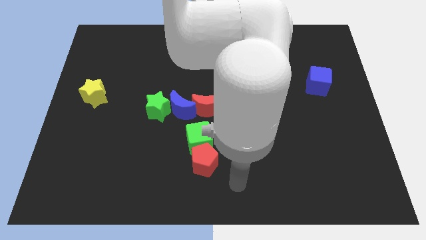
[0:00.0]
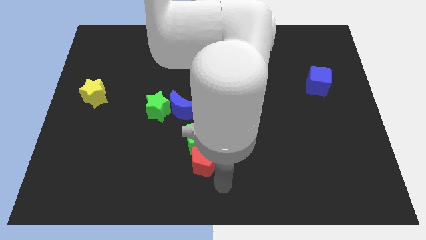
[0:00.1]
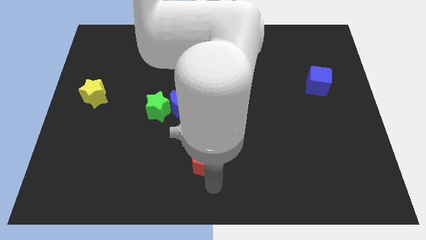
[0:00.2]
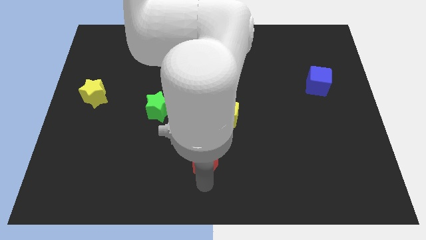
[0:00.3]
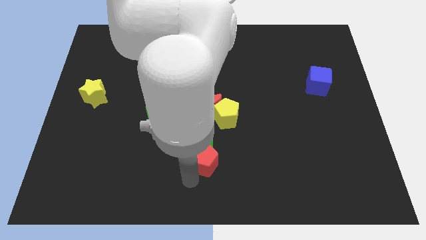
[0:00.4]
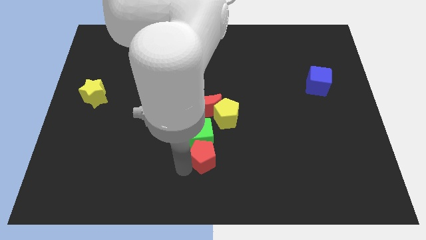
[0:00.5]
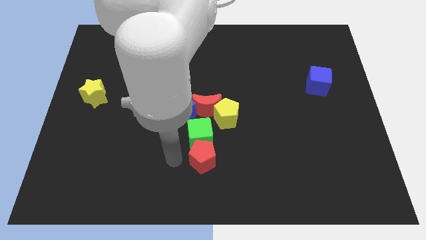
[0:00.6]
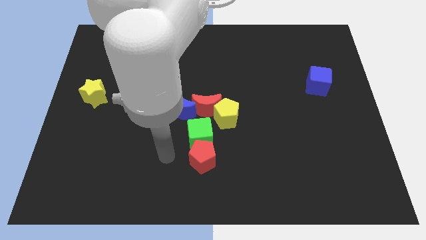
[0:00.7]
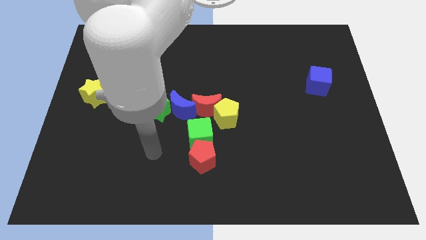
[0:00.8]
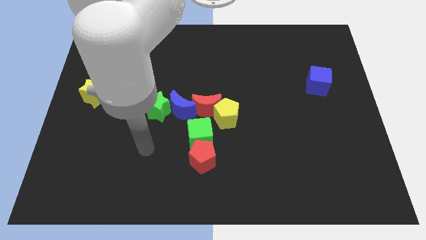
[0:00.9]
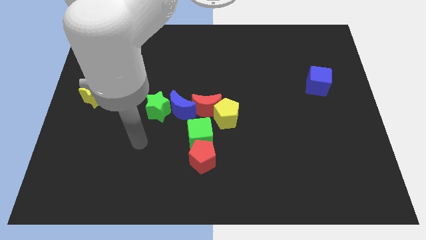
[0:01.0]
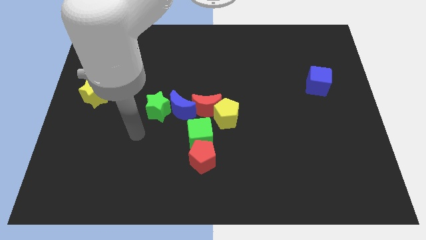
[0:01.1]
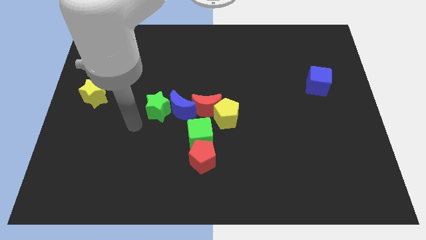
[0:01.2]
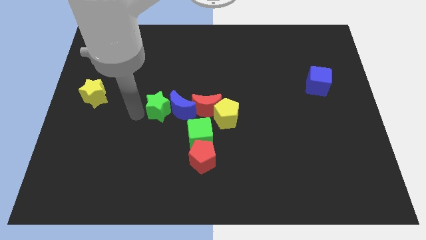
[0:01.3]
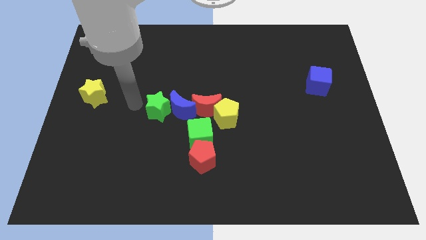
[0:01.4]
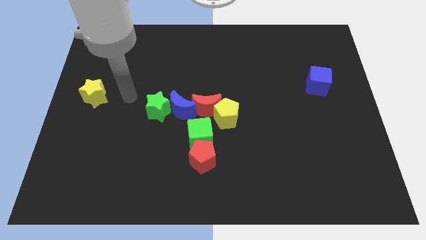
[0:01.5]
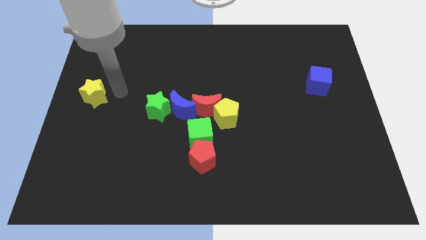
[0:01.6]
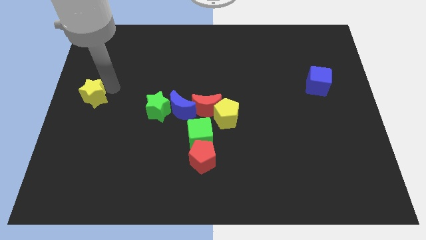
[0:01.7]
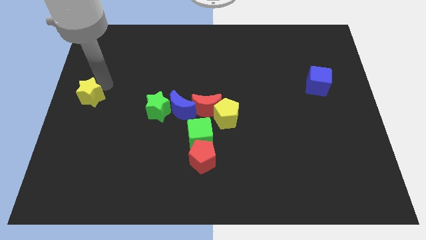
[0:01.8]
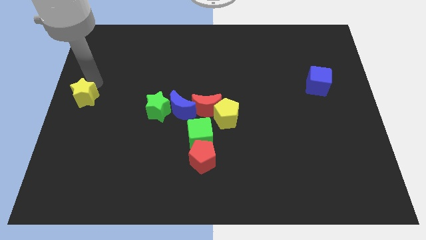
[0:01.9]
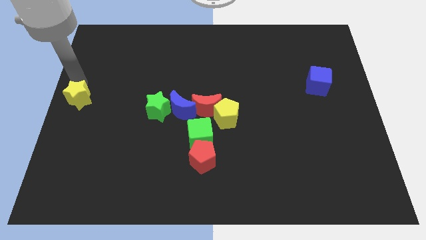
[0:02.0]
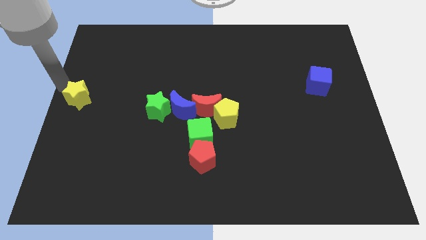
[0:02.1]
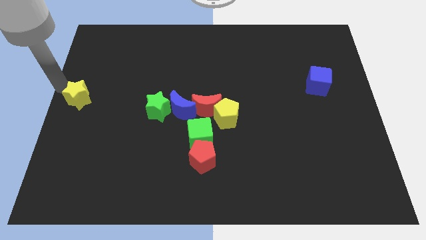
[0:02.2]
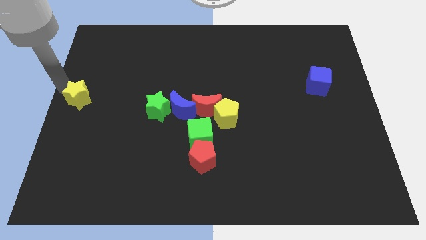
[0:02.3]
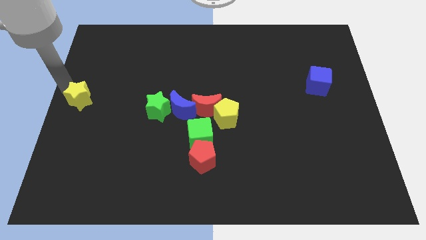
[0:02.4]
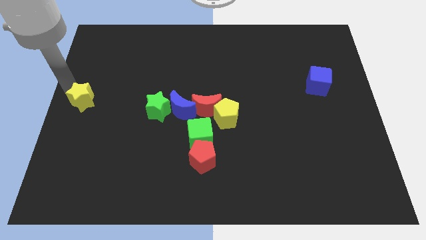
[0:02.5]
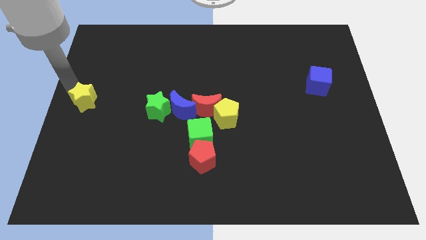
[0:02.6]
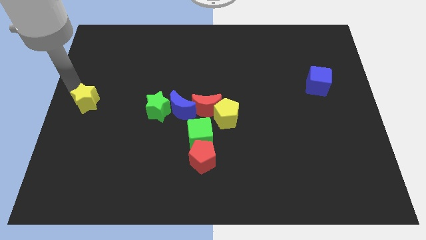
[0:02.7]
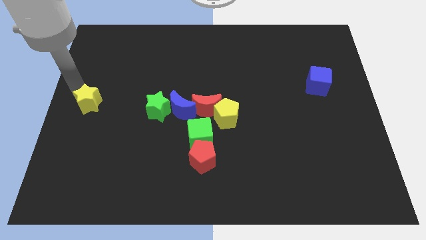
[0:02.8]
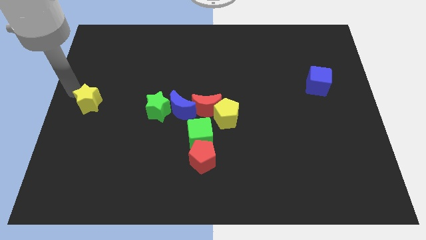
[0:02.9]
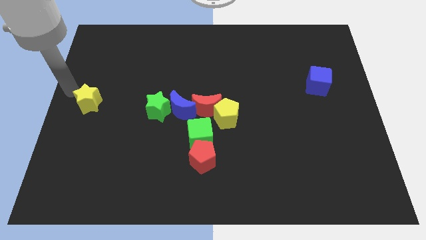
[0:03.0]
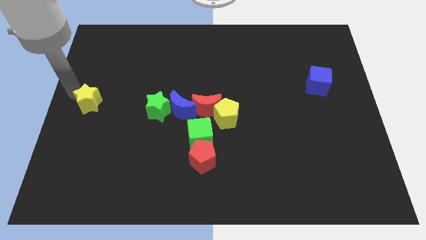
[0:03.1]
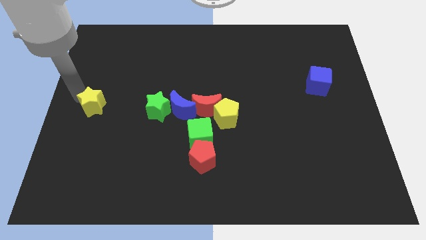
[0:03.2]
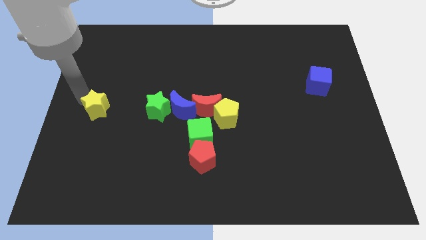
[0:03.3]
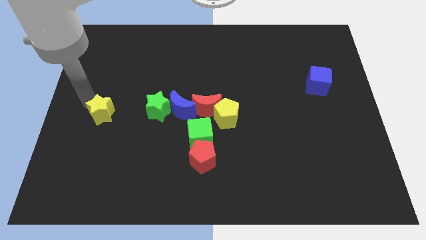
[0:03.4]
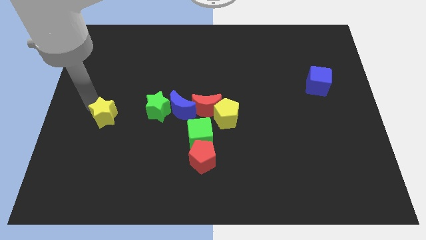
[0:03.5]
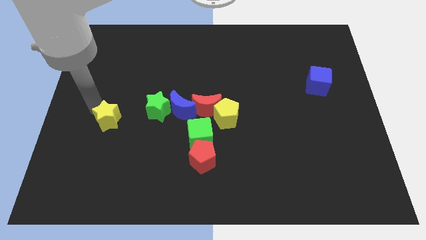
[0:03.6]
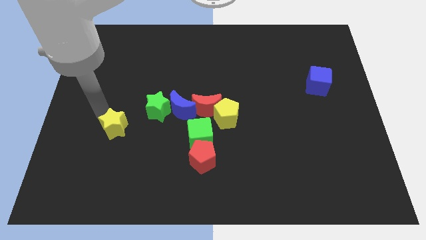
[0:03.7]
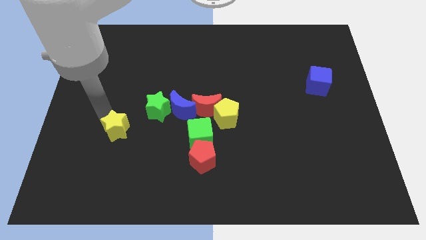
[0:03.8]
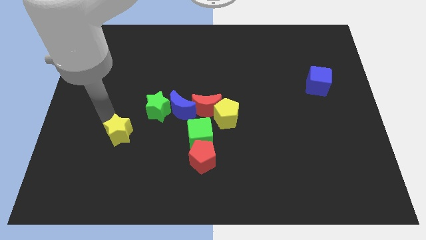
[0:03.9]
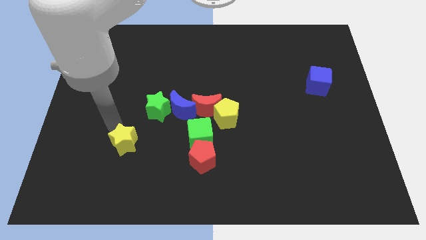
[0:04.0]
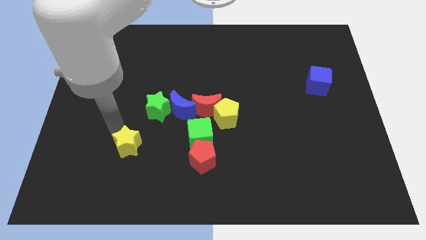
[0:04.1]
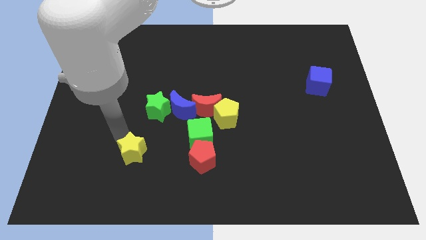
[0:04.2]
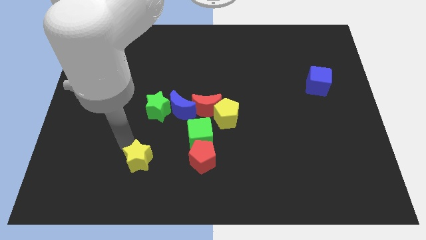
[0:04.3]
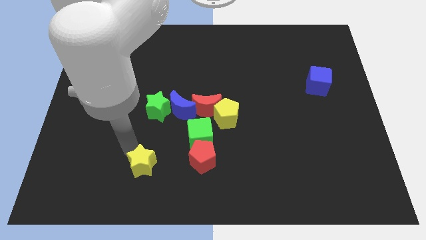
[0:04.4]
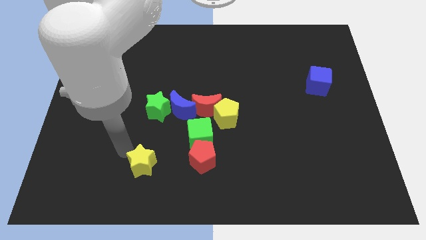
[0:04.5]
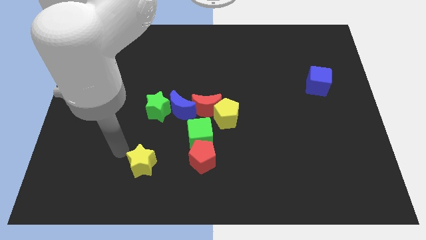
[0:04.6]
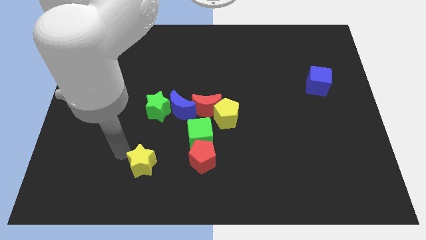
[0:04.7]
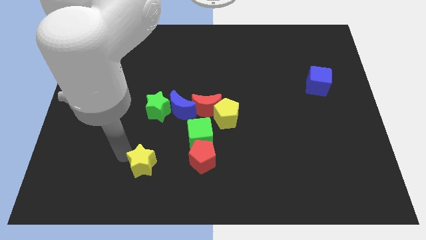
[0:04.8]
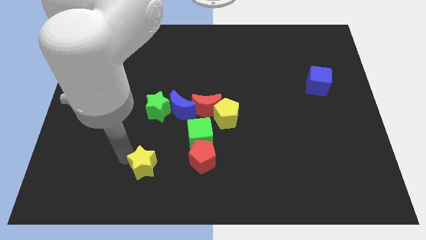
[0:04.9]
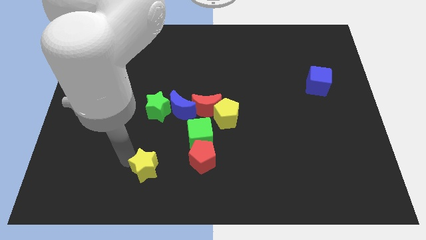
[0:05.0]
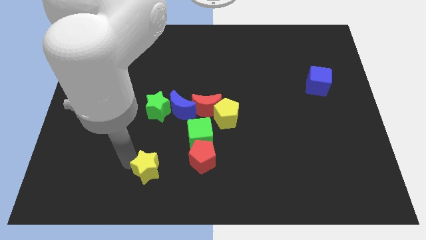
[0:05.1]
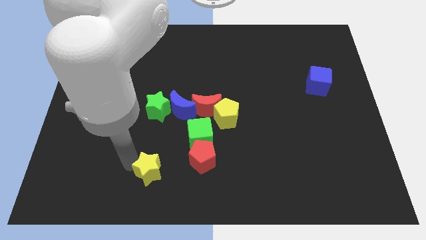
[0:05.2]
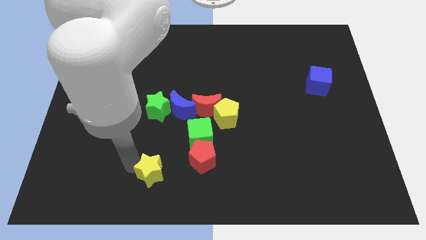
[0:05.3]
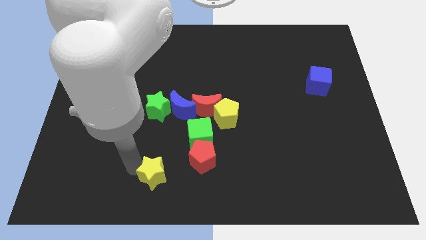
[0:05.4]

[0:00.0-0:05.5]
push the yellow star to the bottom left side of the red pentagon

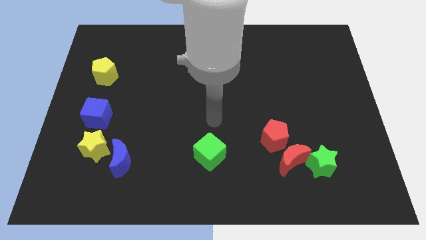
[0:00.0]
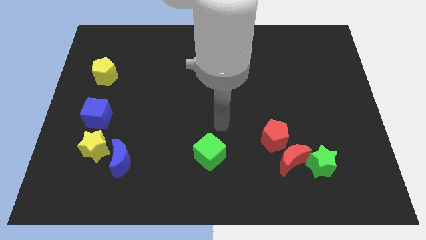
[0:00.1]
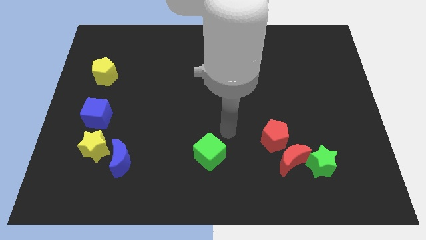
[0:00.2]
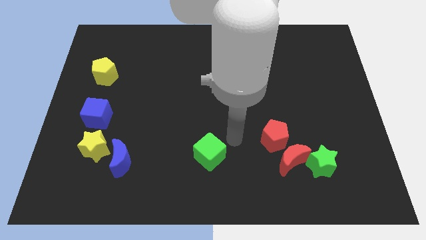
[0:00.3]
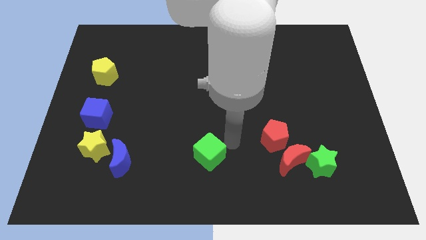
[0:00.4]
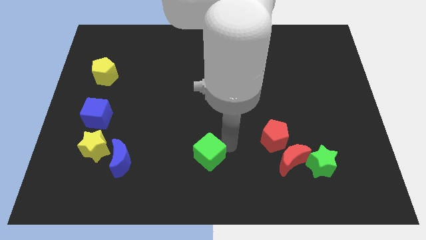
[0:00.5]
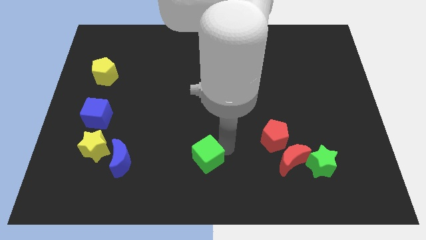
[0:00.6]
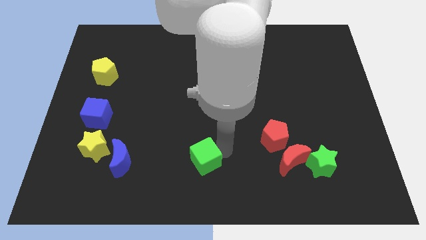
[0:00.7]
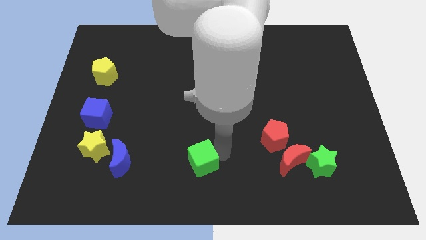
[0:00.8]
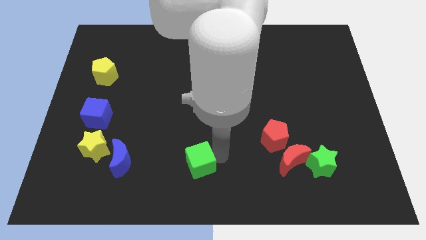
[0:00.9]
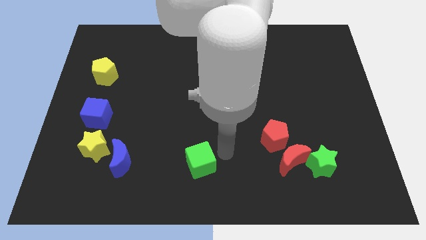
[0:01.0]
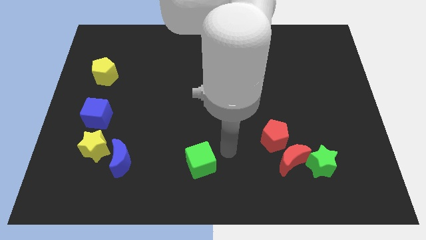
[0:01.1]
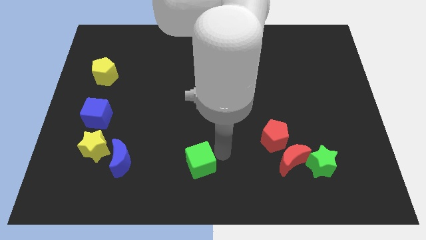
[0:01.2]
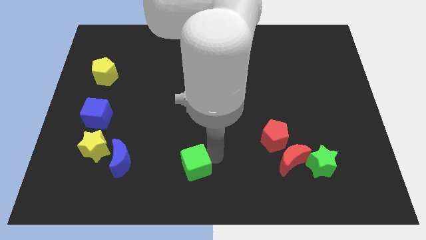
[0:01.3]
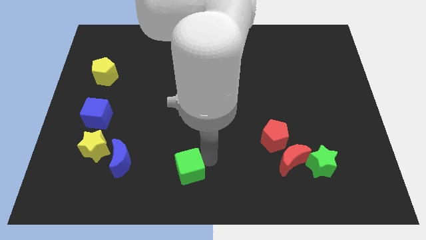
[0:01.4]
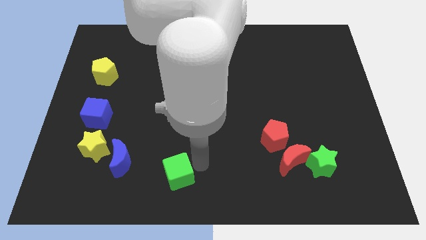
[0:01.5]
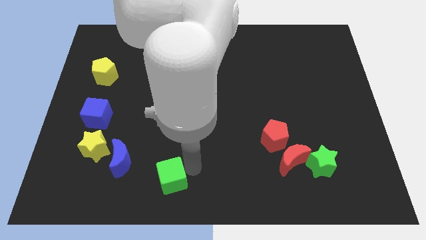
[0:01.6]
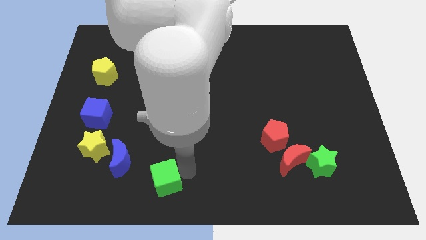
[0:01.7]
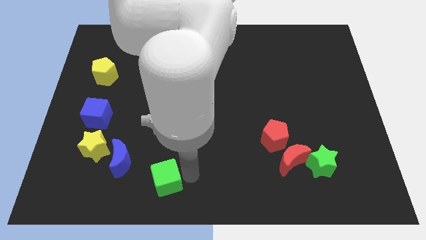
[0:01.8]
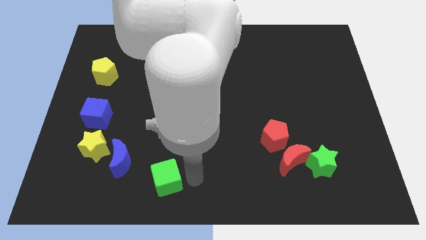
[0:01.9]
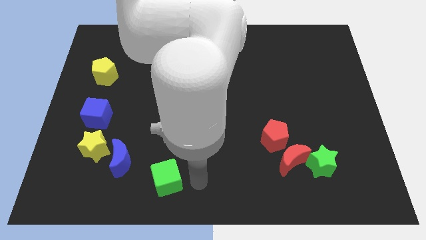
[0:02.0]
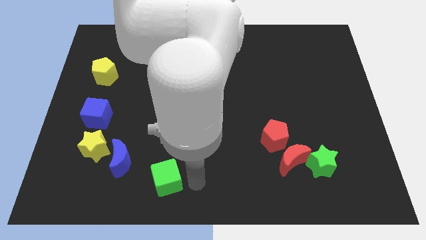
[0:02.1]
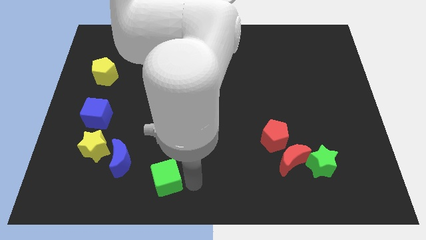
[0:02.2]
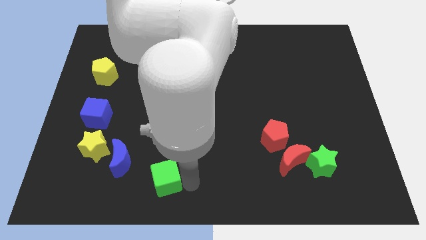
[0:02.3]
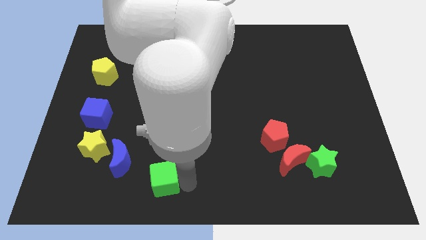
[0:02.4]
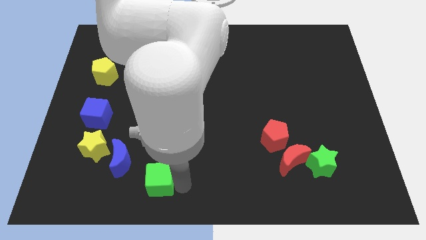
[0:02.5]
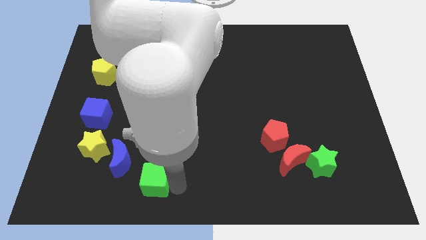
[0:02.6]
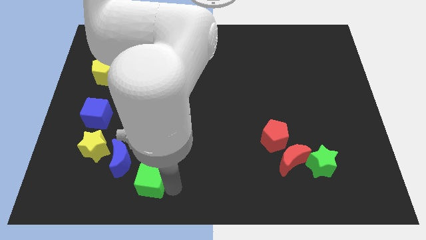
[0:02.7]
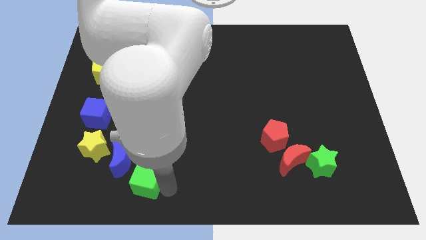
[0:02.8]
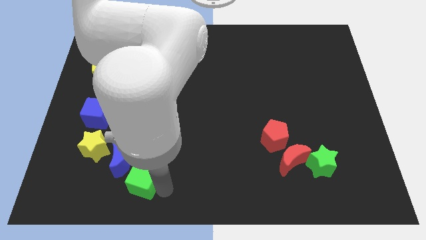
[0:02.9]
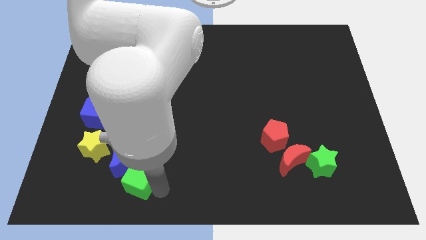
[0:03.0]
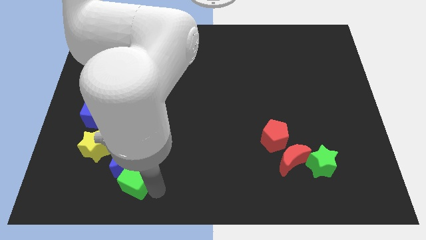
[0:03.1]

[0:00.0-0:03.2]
put the green cube to the bottom right side of the yellow star
